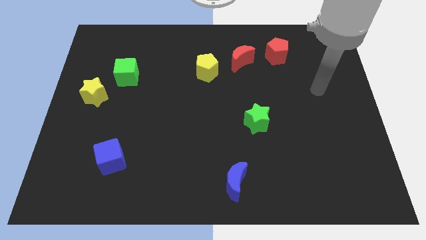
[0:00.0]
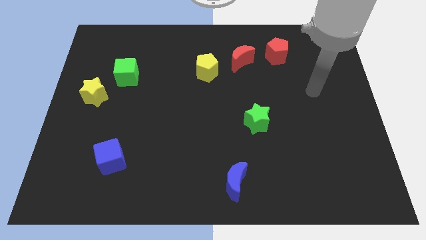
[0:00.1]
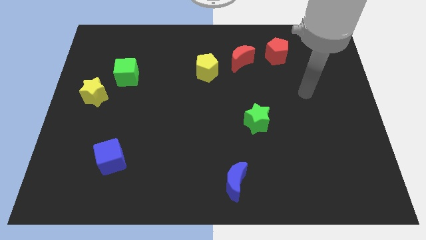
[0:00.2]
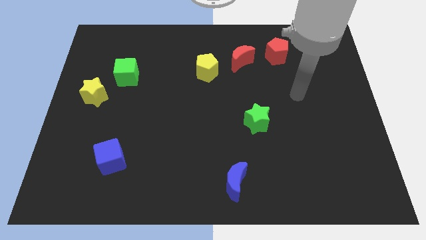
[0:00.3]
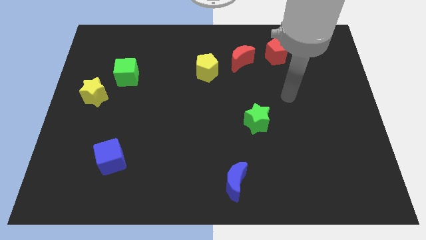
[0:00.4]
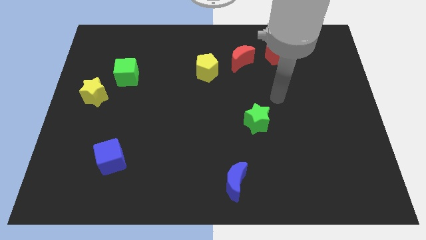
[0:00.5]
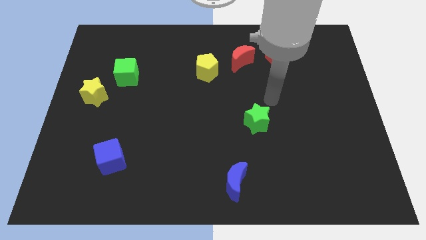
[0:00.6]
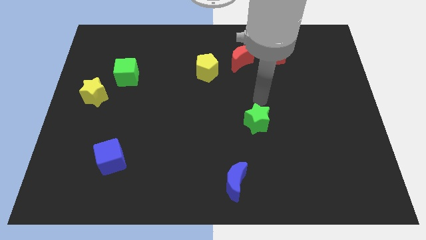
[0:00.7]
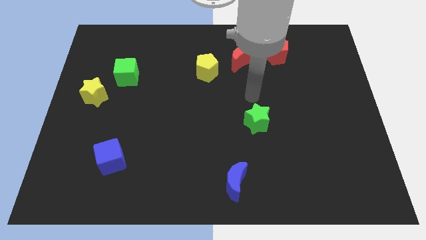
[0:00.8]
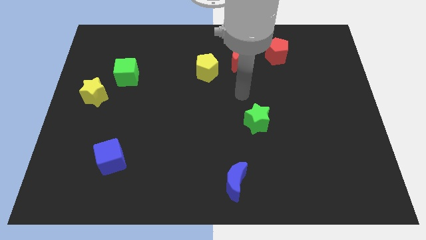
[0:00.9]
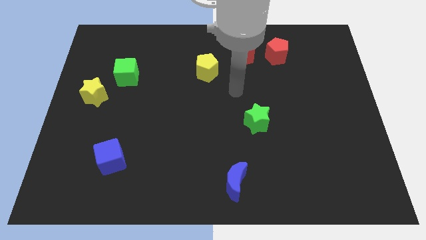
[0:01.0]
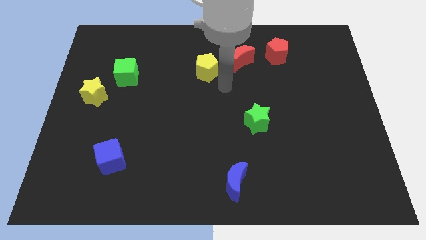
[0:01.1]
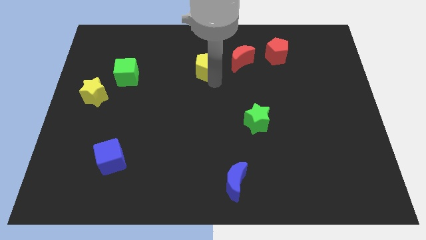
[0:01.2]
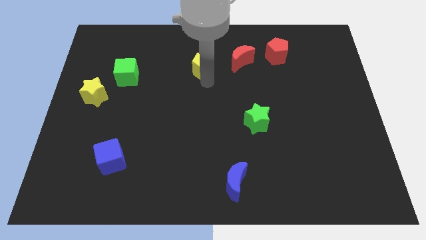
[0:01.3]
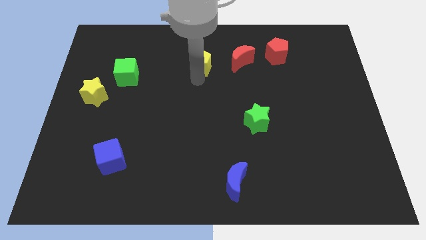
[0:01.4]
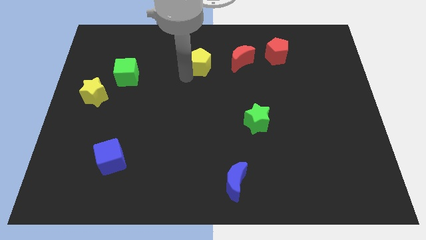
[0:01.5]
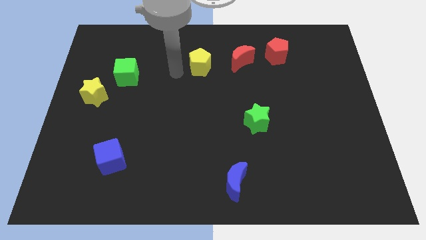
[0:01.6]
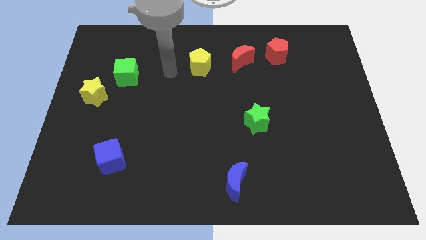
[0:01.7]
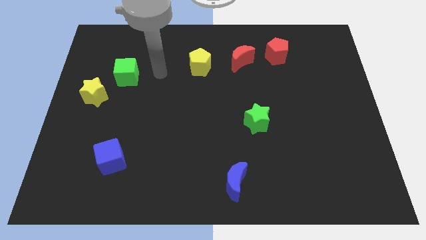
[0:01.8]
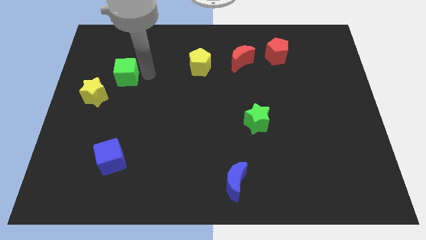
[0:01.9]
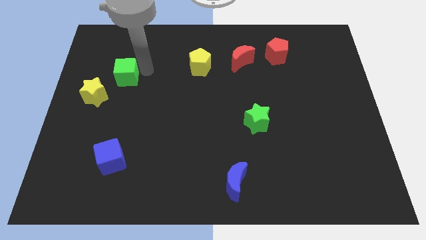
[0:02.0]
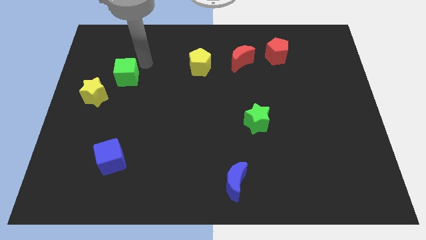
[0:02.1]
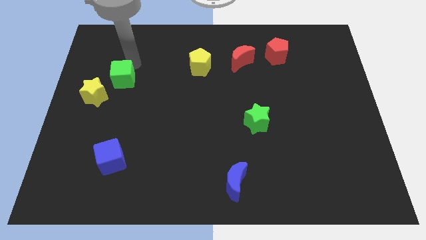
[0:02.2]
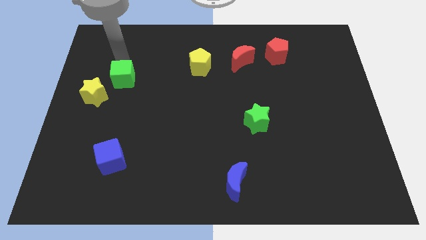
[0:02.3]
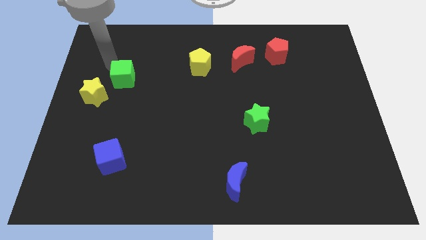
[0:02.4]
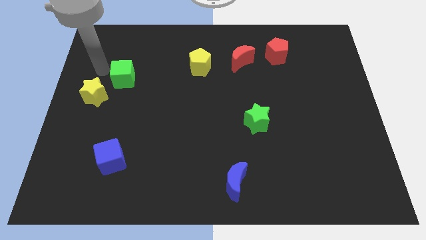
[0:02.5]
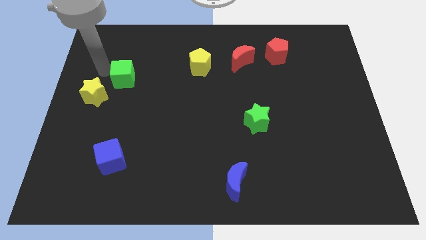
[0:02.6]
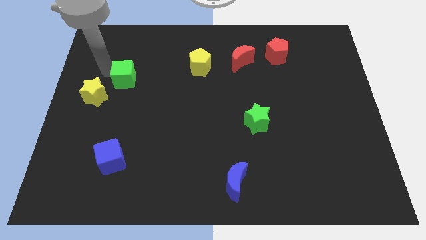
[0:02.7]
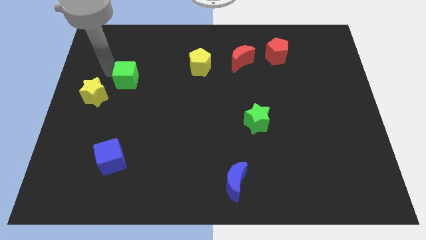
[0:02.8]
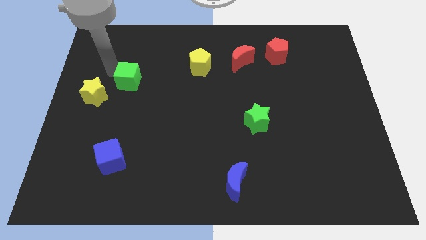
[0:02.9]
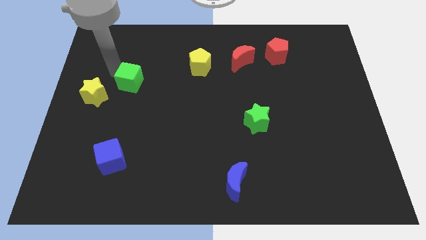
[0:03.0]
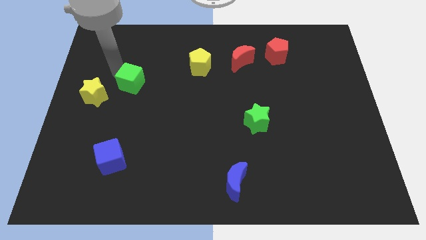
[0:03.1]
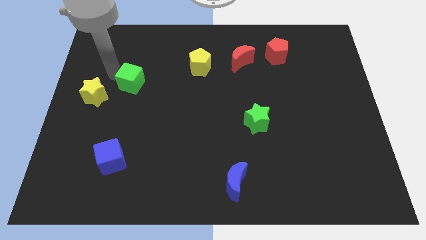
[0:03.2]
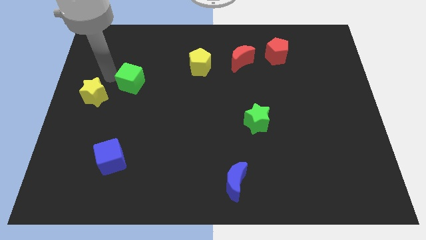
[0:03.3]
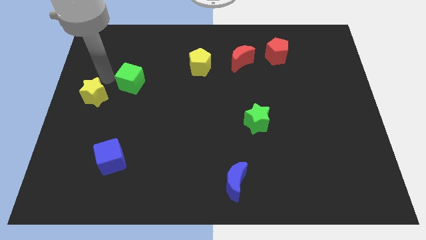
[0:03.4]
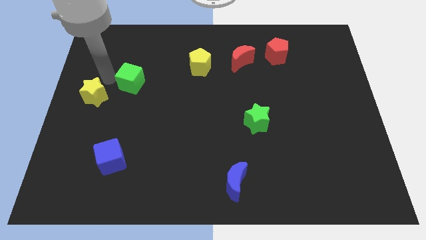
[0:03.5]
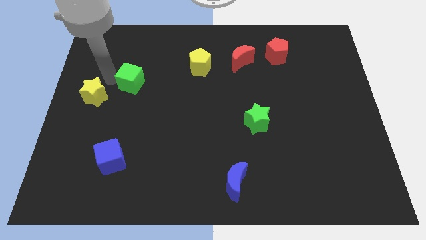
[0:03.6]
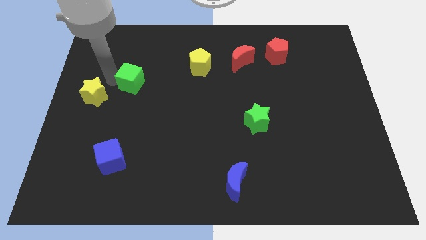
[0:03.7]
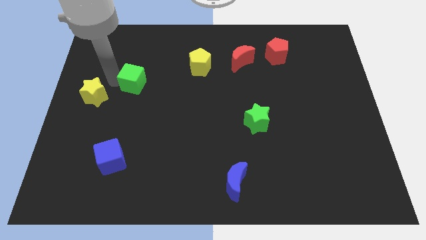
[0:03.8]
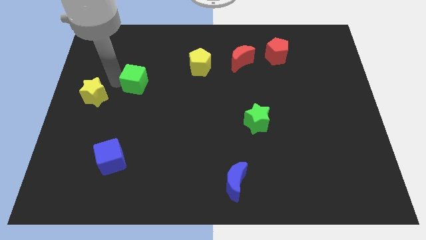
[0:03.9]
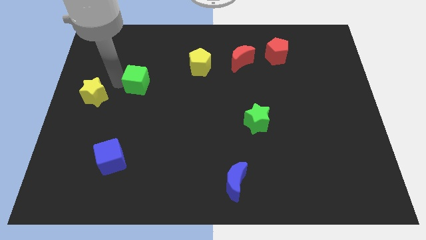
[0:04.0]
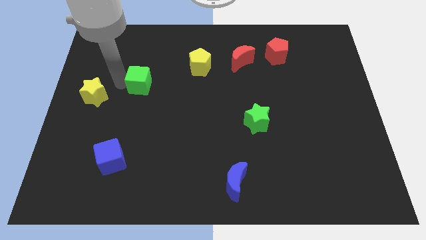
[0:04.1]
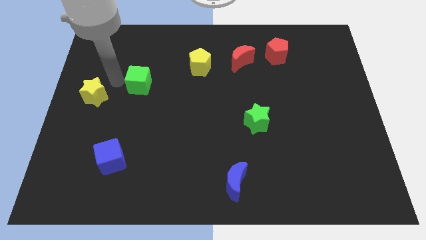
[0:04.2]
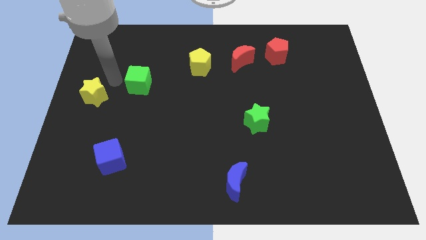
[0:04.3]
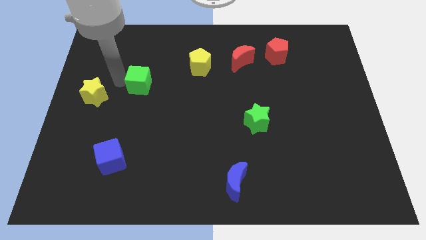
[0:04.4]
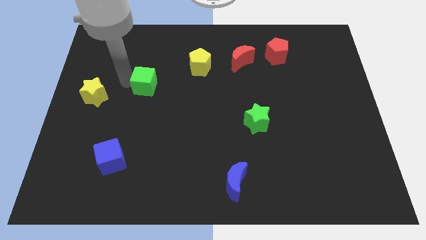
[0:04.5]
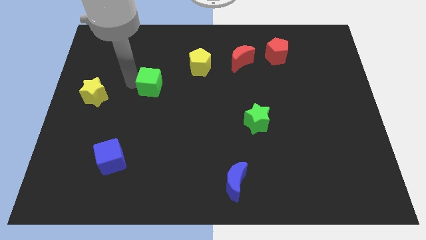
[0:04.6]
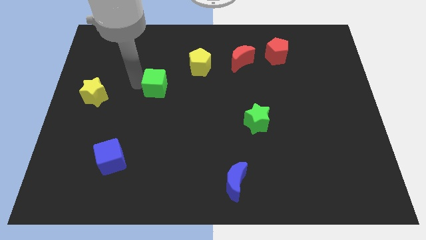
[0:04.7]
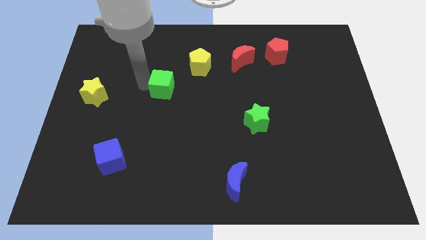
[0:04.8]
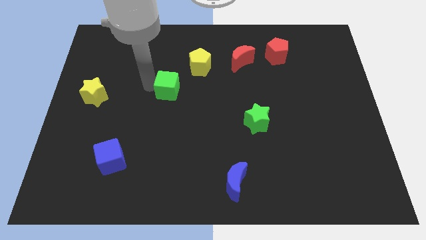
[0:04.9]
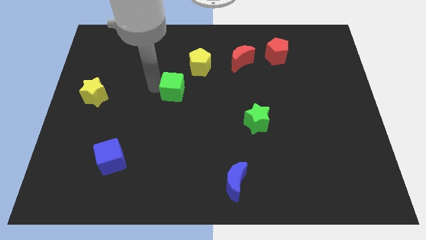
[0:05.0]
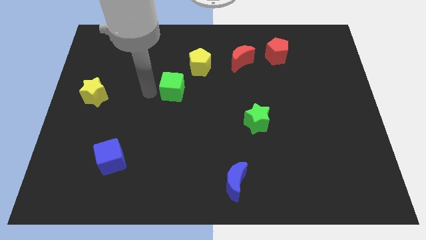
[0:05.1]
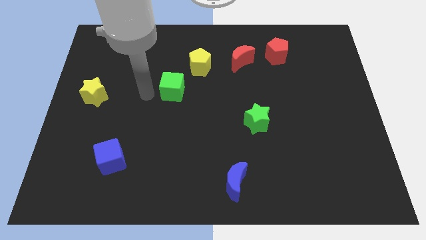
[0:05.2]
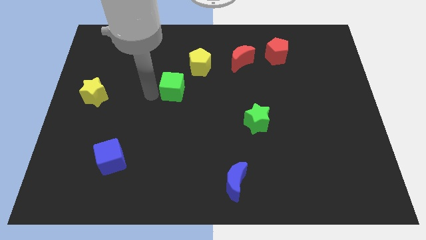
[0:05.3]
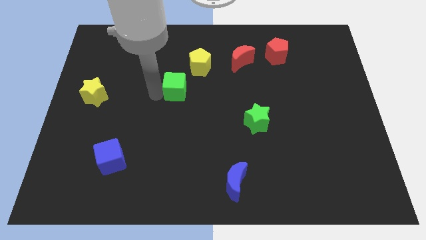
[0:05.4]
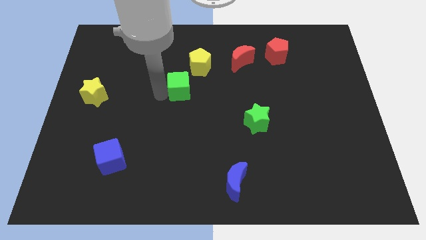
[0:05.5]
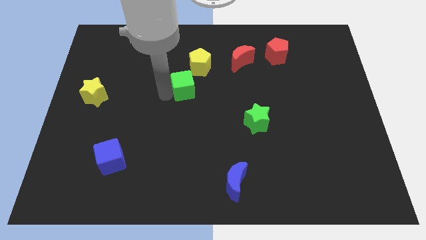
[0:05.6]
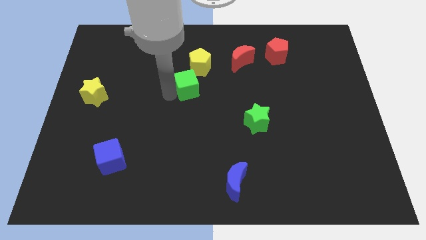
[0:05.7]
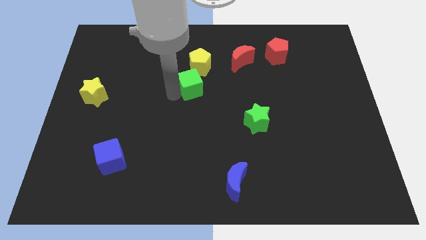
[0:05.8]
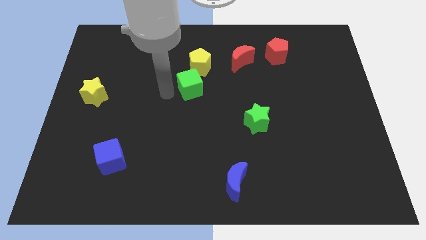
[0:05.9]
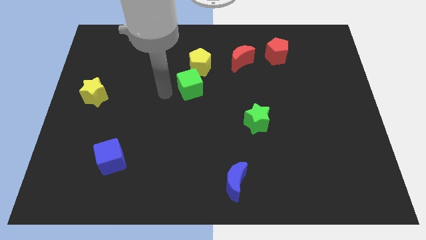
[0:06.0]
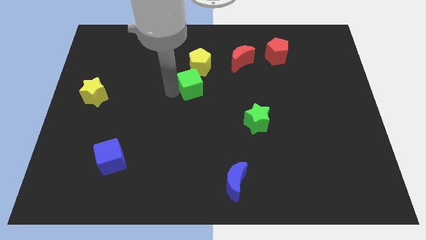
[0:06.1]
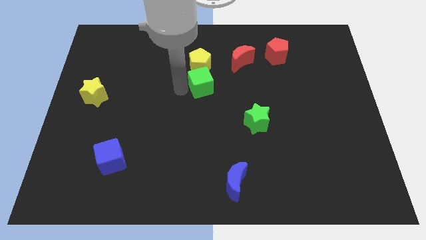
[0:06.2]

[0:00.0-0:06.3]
slide the green cube to the bottom right side of the yellow pentagon
